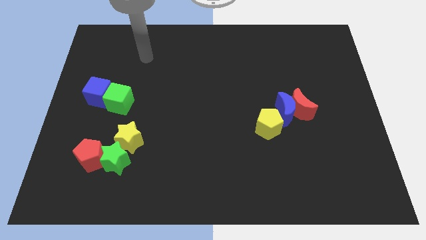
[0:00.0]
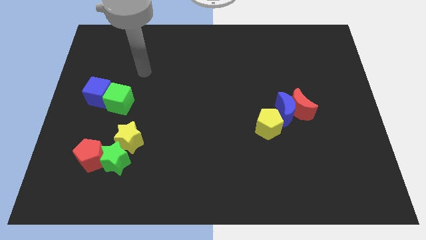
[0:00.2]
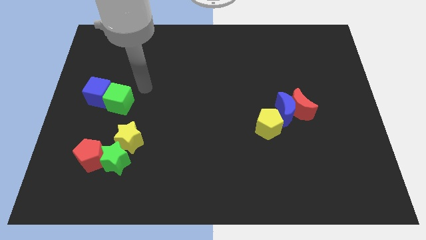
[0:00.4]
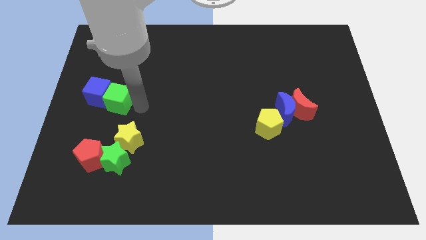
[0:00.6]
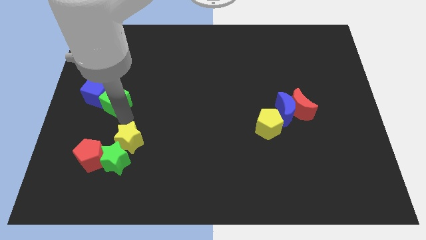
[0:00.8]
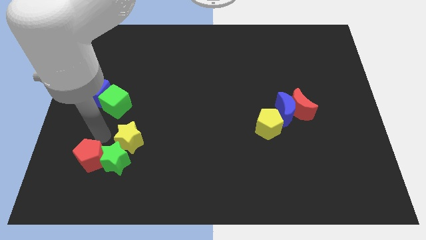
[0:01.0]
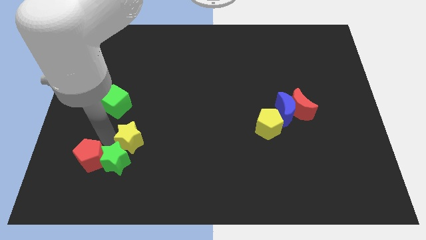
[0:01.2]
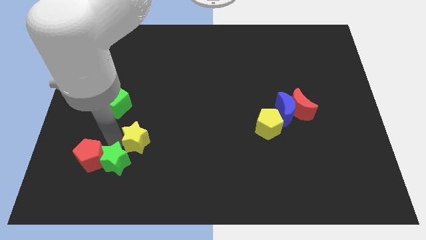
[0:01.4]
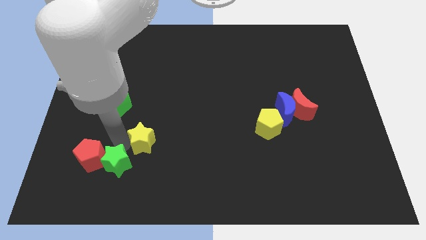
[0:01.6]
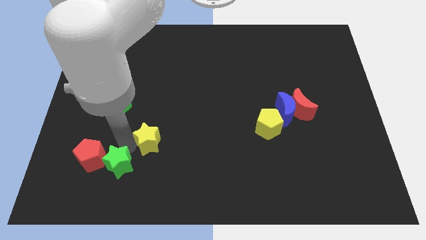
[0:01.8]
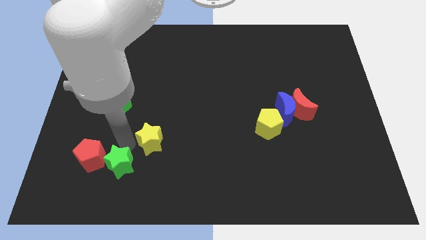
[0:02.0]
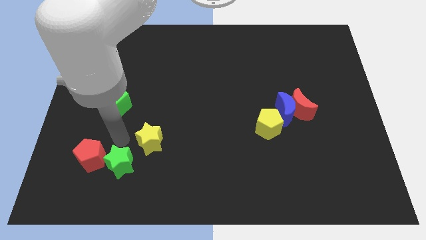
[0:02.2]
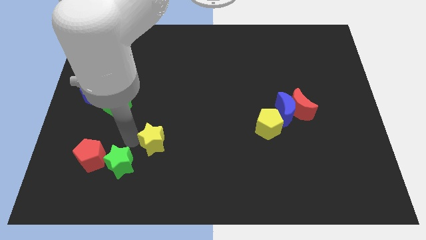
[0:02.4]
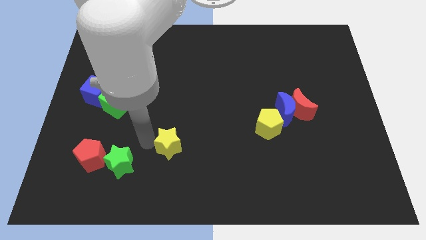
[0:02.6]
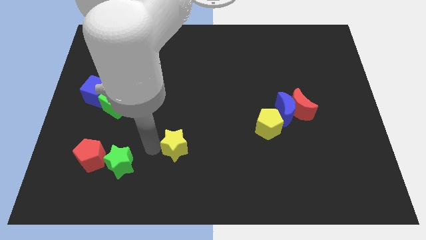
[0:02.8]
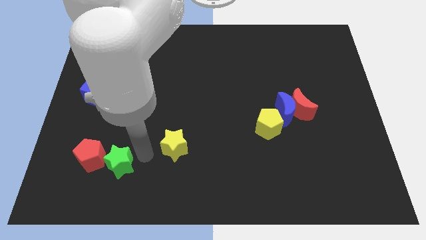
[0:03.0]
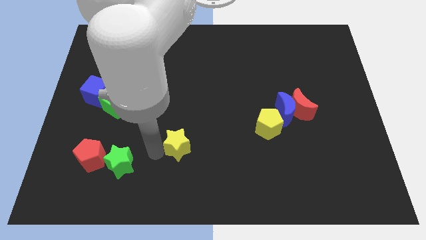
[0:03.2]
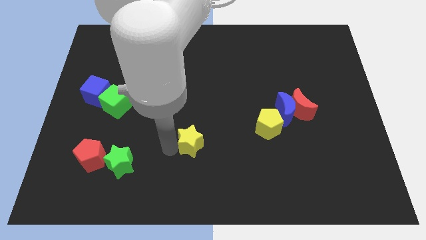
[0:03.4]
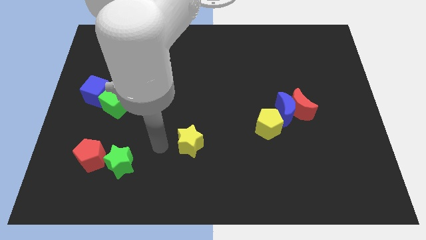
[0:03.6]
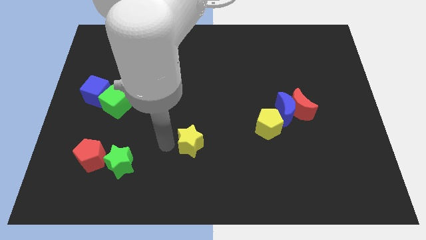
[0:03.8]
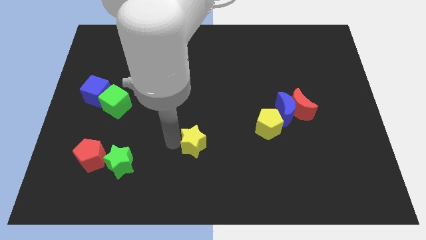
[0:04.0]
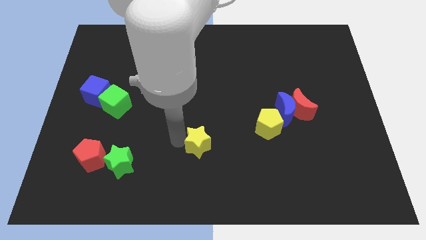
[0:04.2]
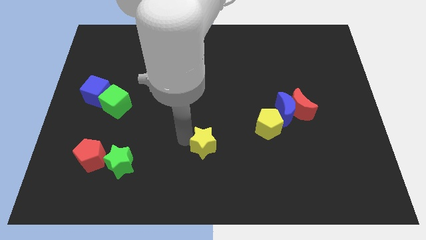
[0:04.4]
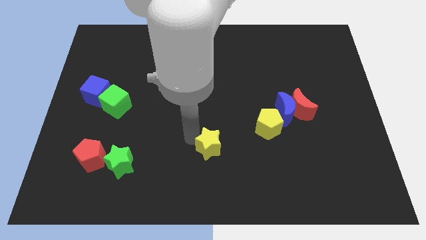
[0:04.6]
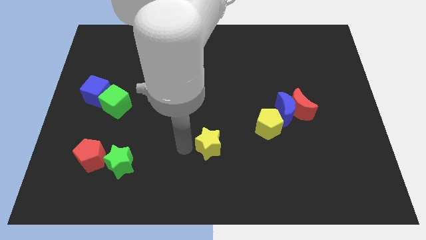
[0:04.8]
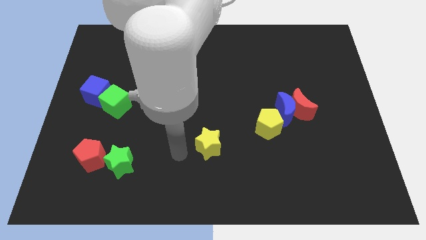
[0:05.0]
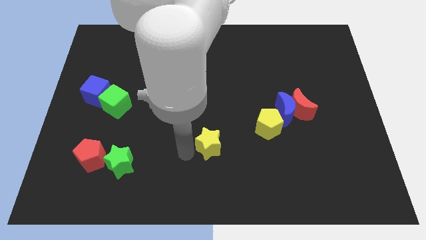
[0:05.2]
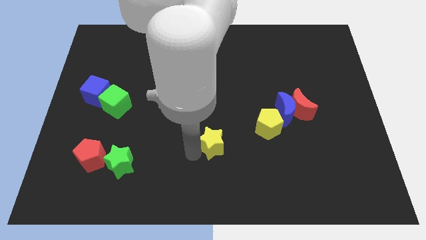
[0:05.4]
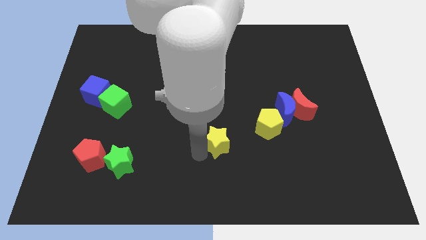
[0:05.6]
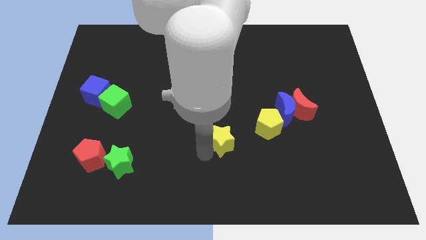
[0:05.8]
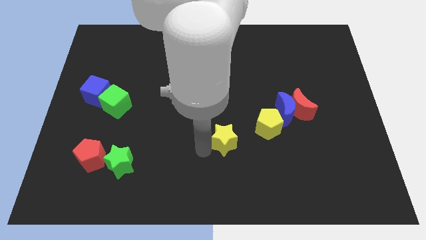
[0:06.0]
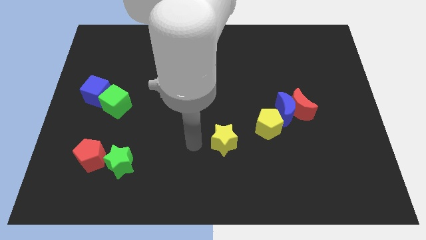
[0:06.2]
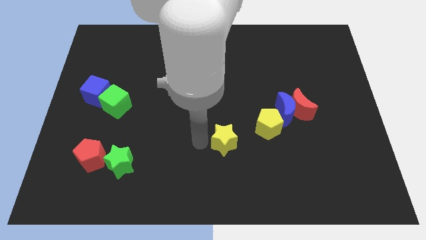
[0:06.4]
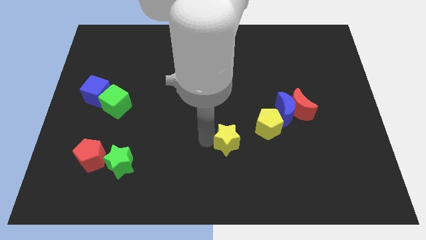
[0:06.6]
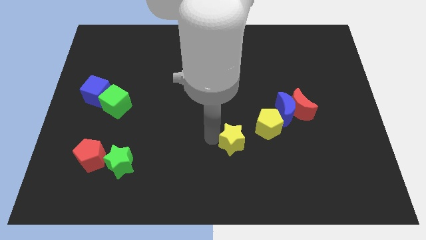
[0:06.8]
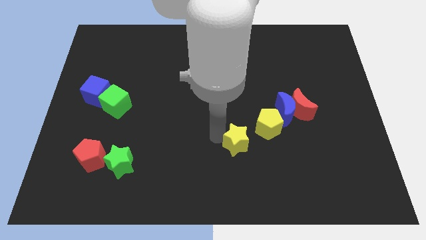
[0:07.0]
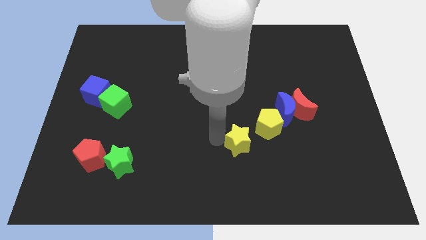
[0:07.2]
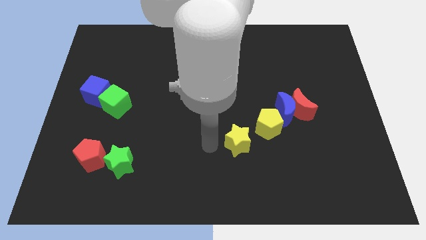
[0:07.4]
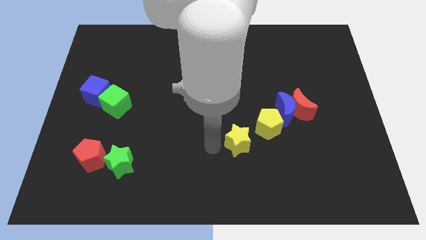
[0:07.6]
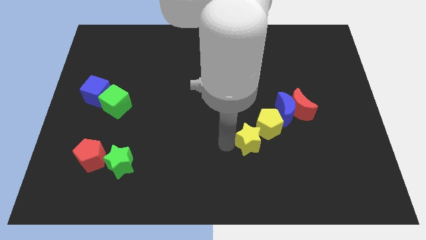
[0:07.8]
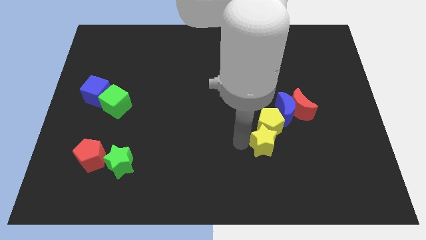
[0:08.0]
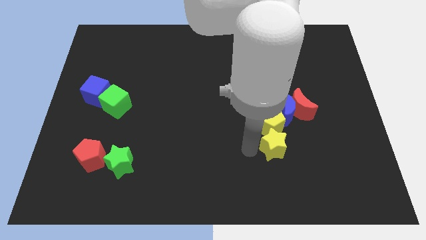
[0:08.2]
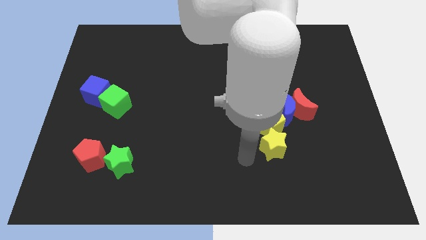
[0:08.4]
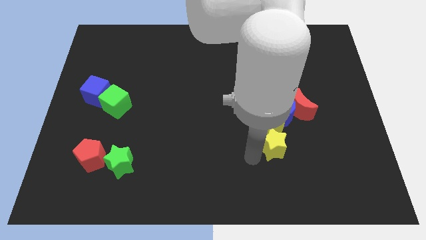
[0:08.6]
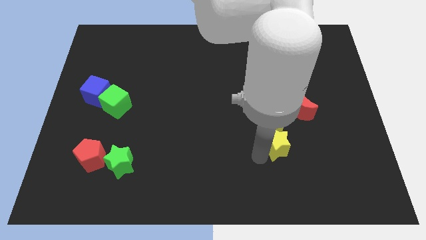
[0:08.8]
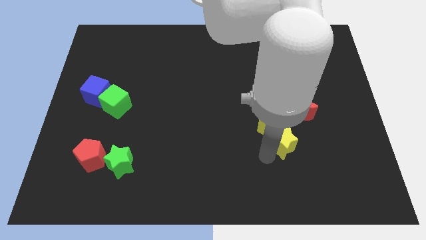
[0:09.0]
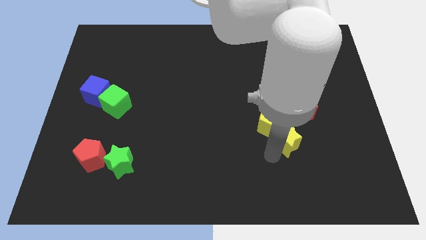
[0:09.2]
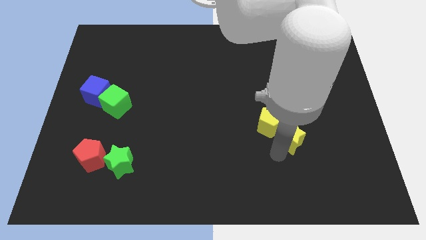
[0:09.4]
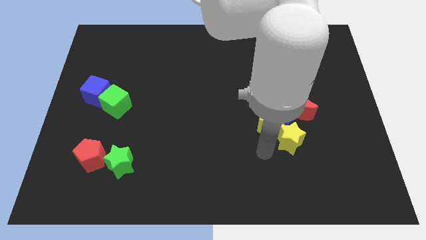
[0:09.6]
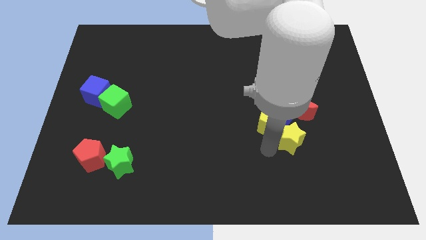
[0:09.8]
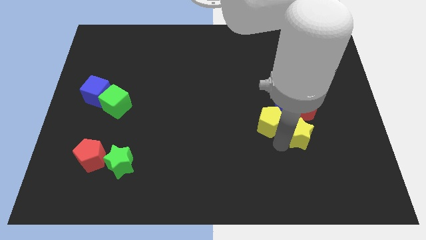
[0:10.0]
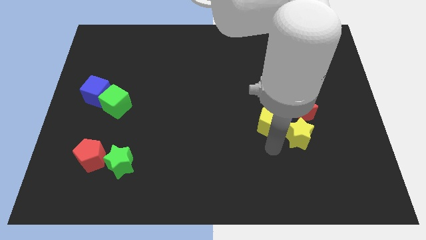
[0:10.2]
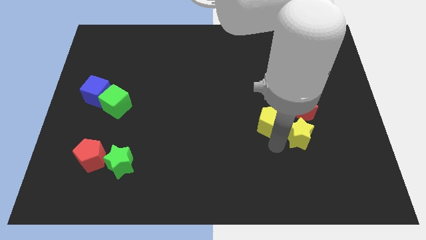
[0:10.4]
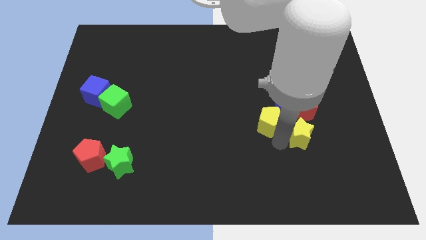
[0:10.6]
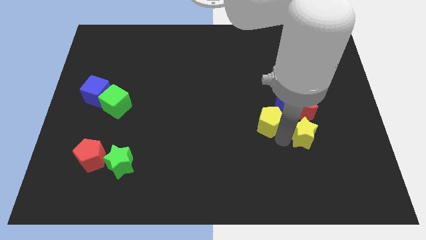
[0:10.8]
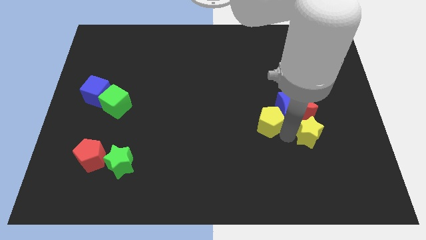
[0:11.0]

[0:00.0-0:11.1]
slide the yellow star to the bottom right side of the red moon
